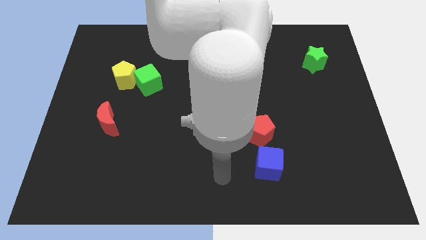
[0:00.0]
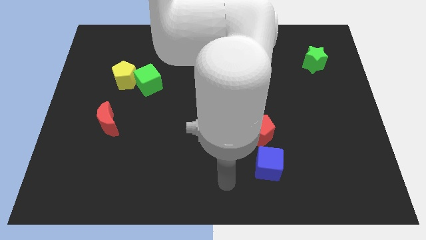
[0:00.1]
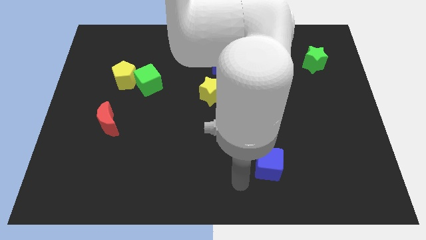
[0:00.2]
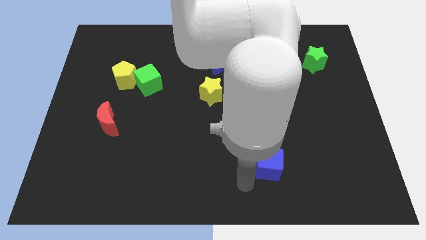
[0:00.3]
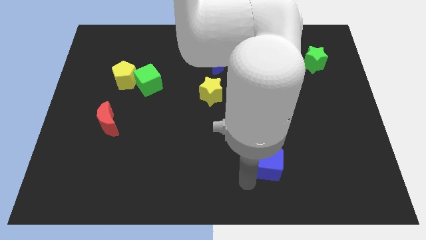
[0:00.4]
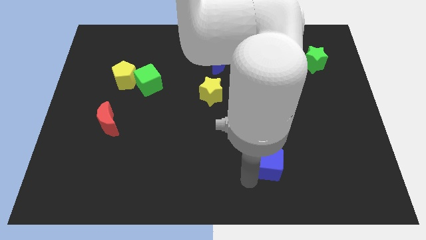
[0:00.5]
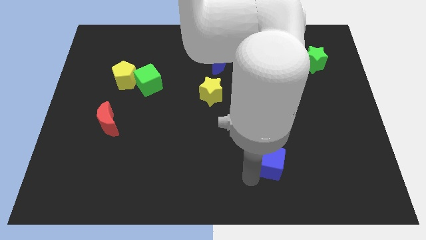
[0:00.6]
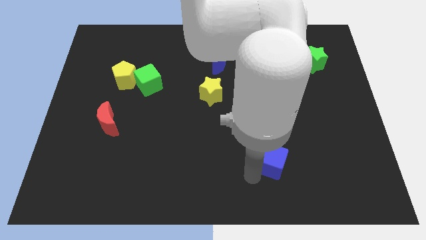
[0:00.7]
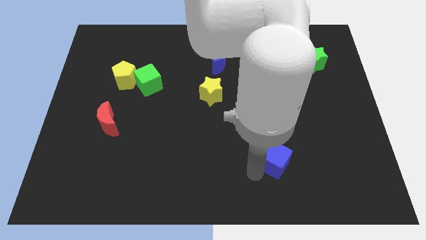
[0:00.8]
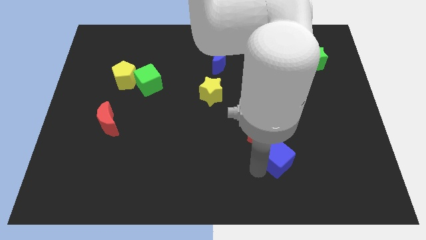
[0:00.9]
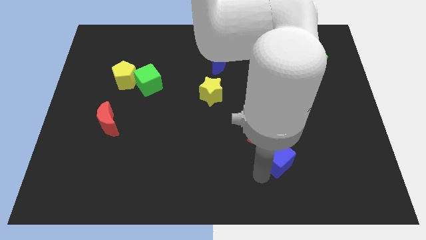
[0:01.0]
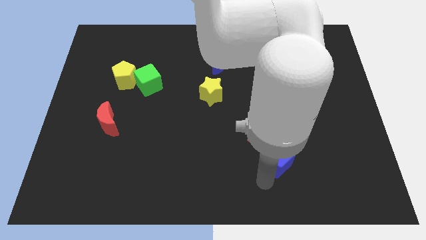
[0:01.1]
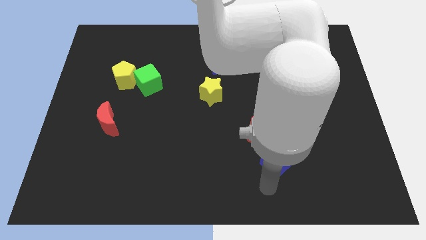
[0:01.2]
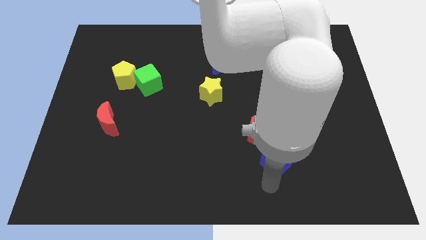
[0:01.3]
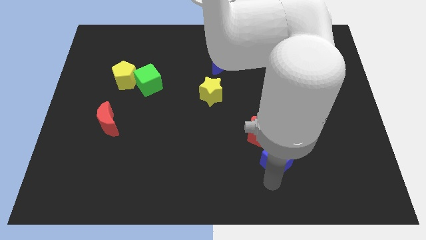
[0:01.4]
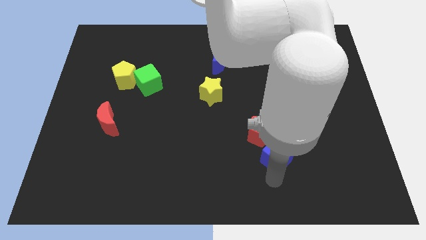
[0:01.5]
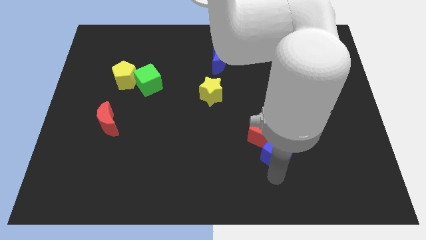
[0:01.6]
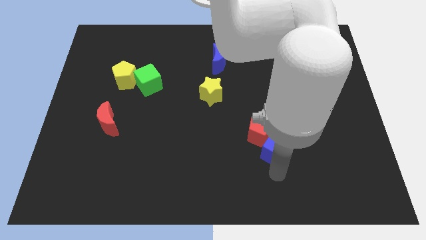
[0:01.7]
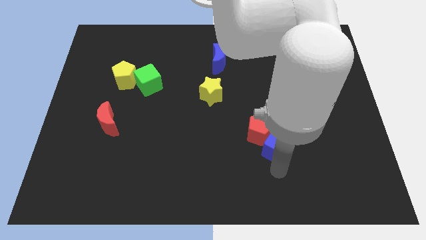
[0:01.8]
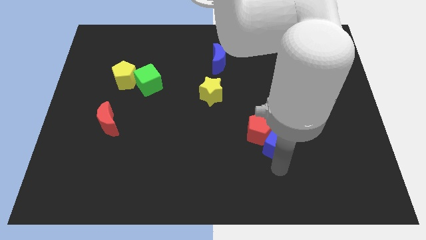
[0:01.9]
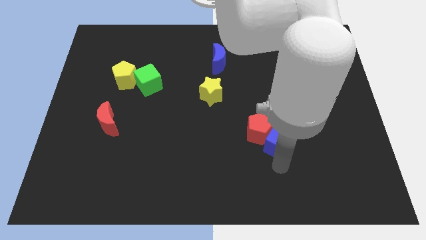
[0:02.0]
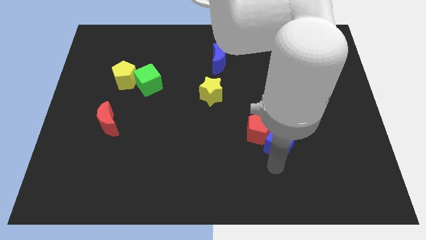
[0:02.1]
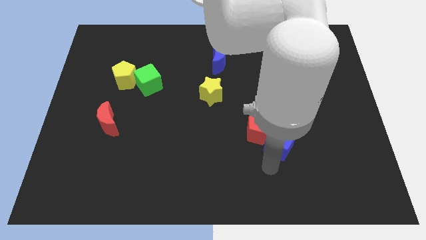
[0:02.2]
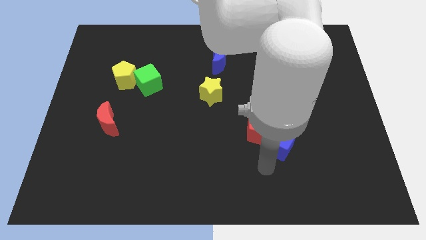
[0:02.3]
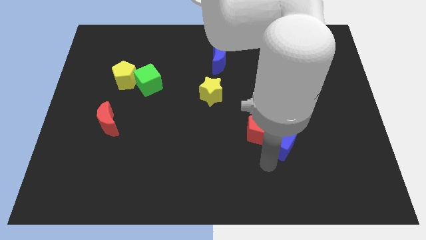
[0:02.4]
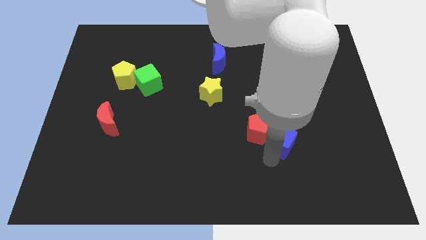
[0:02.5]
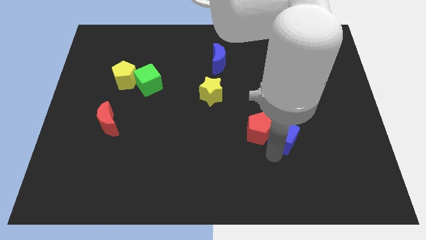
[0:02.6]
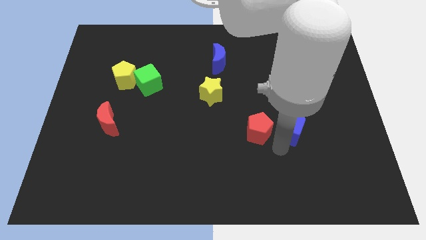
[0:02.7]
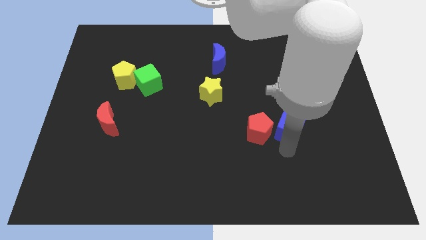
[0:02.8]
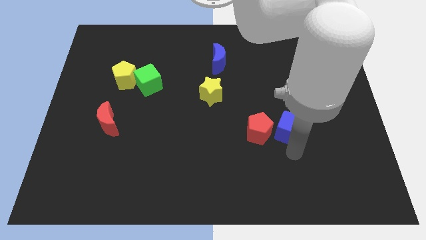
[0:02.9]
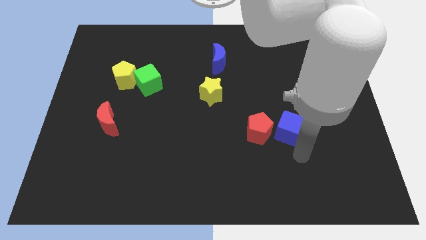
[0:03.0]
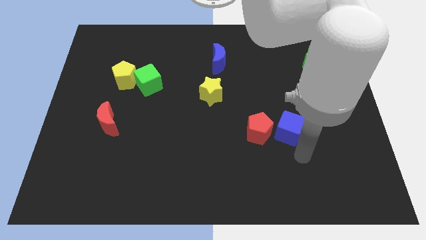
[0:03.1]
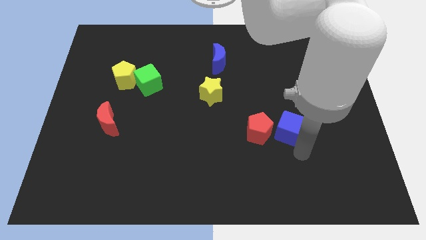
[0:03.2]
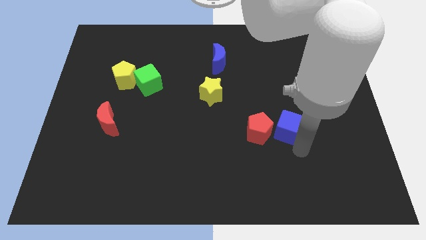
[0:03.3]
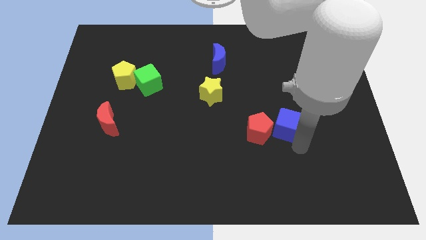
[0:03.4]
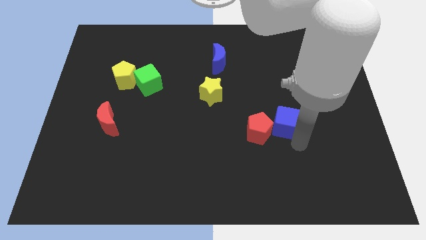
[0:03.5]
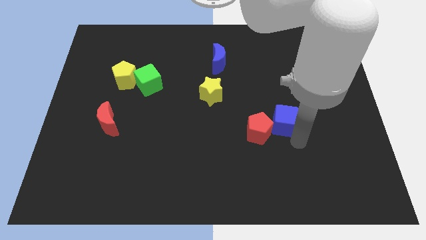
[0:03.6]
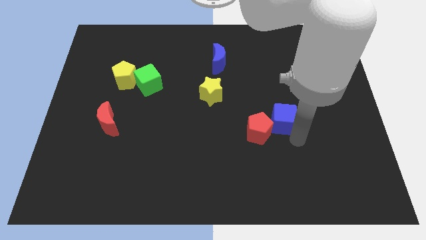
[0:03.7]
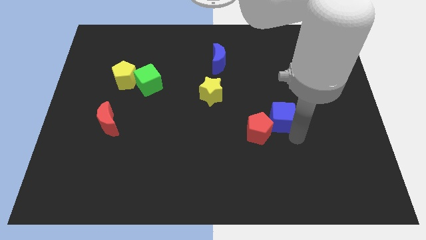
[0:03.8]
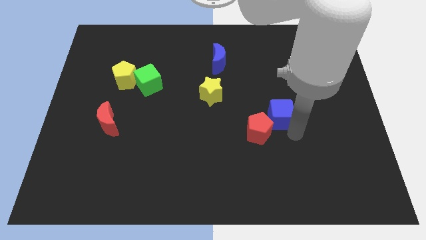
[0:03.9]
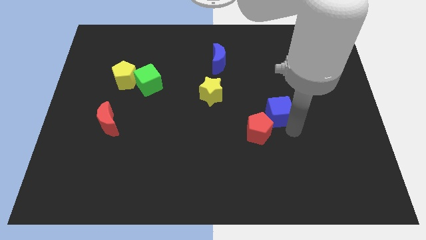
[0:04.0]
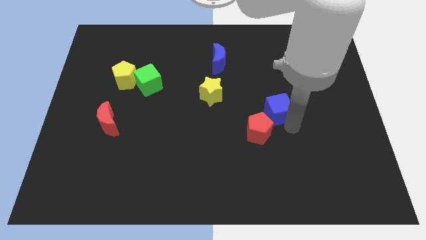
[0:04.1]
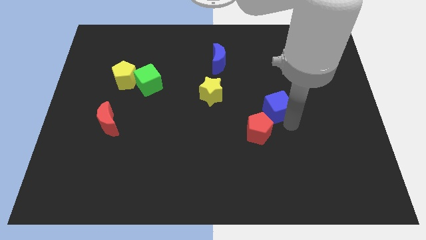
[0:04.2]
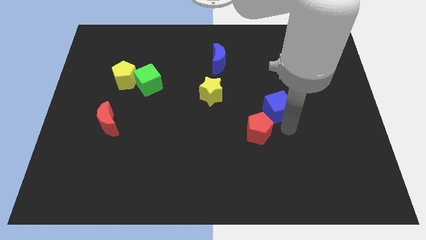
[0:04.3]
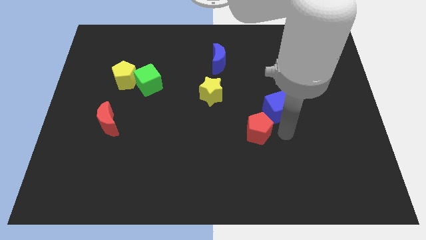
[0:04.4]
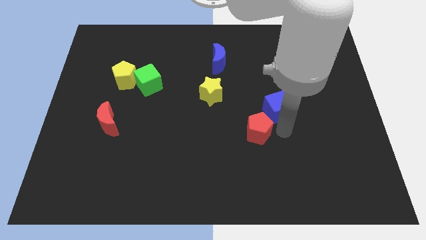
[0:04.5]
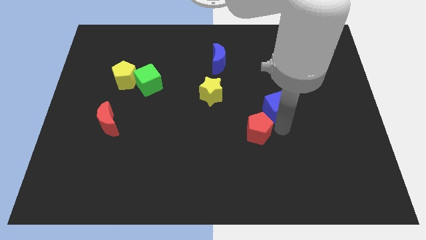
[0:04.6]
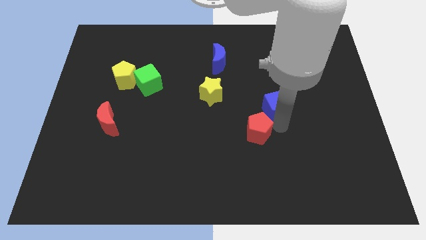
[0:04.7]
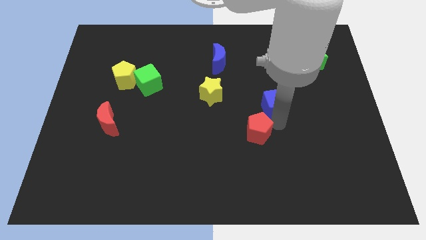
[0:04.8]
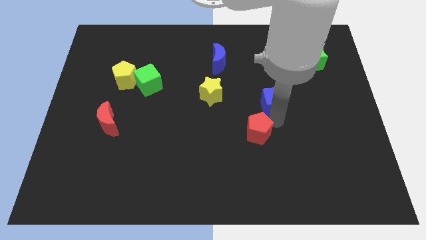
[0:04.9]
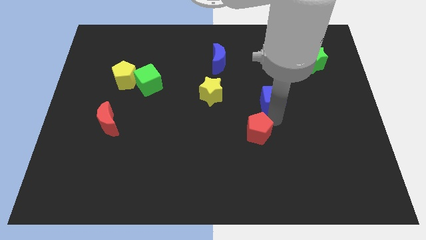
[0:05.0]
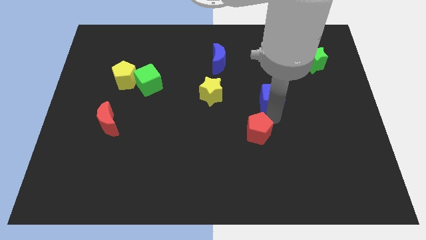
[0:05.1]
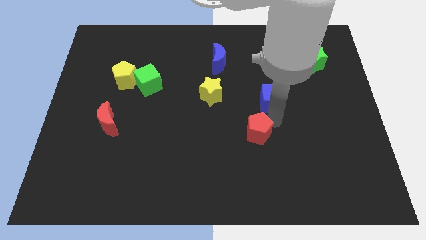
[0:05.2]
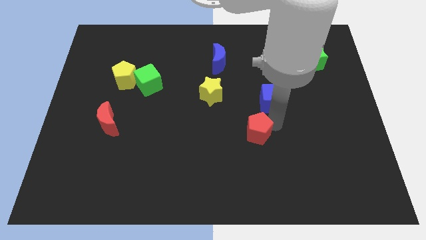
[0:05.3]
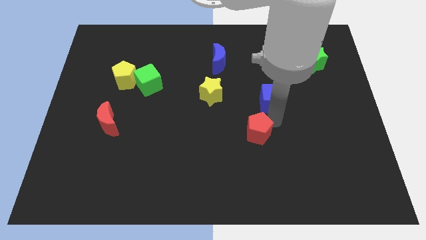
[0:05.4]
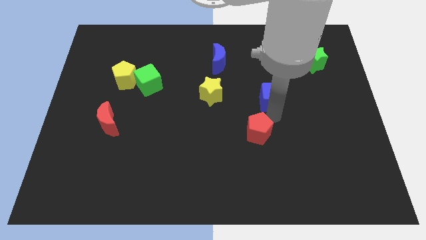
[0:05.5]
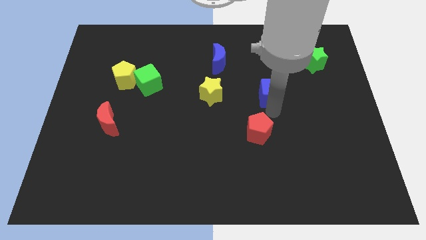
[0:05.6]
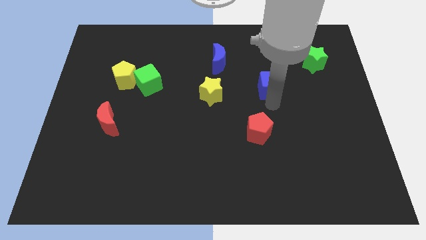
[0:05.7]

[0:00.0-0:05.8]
move the blue cube up

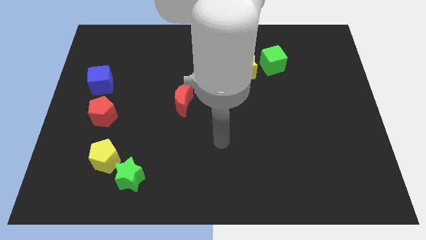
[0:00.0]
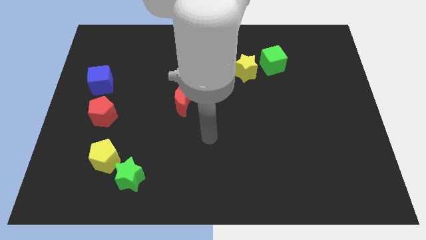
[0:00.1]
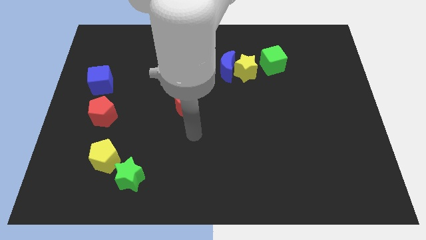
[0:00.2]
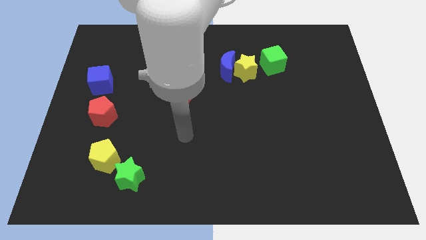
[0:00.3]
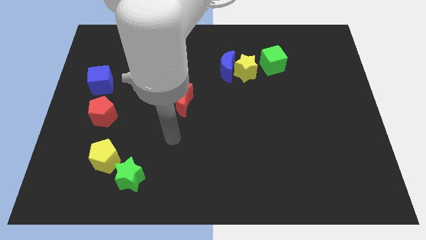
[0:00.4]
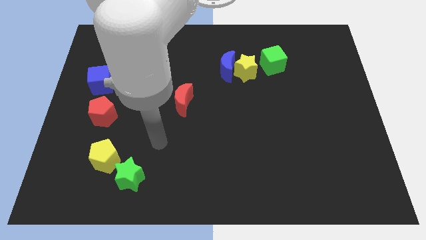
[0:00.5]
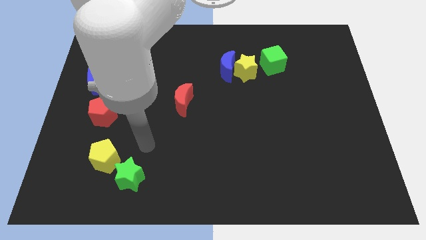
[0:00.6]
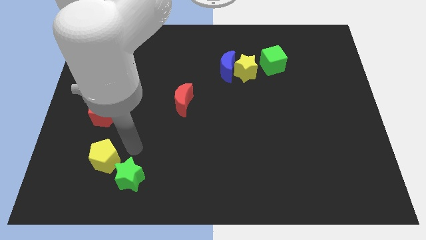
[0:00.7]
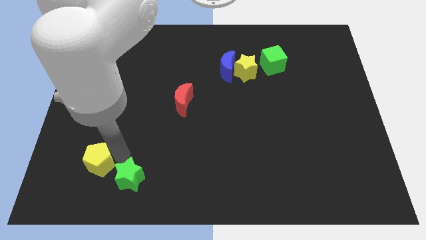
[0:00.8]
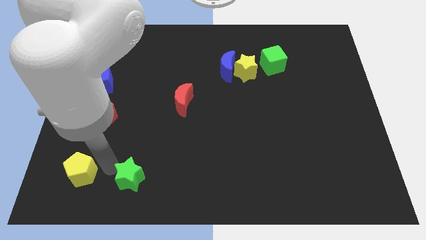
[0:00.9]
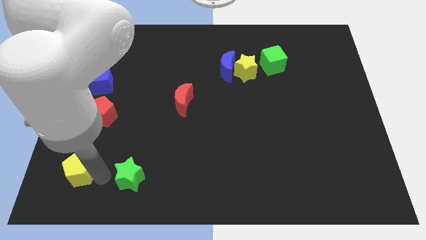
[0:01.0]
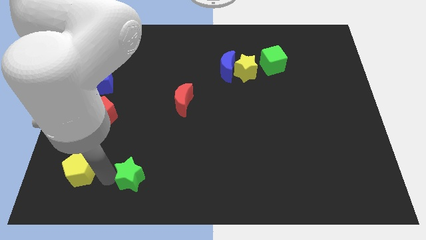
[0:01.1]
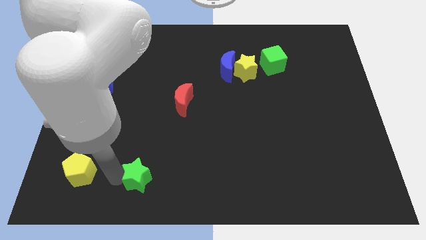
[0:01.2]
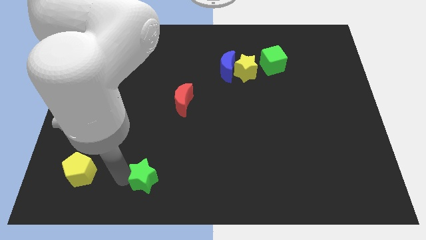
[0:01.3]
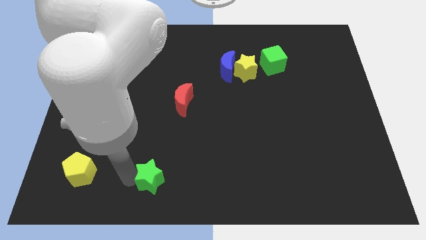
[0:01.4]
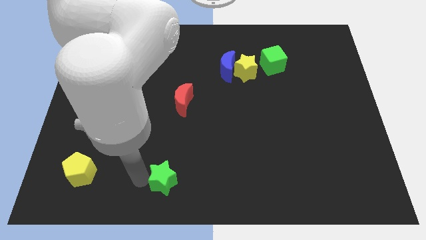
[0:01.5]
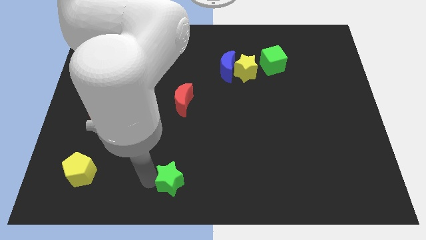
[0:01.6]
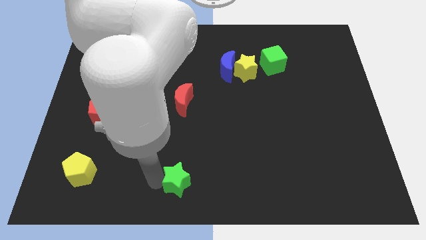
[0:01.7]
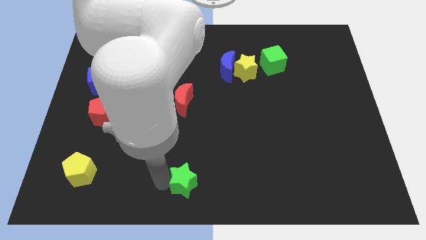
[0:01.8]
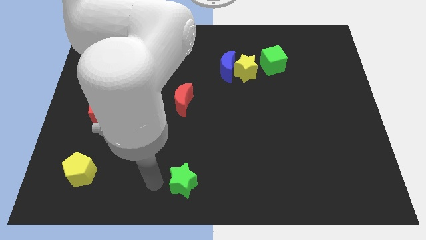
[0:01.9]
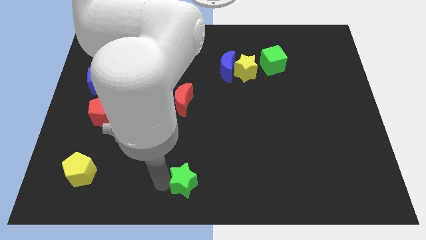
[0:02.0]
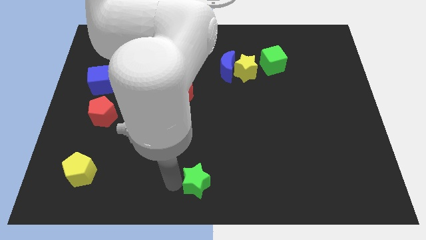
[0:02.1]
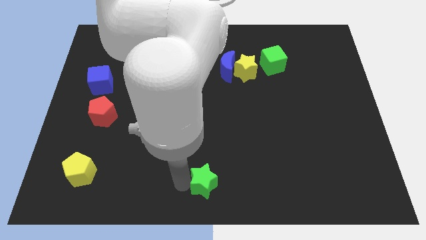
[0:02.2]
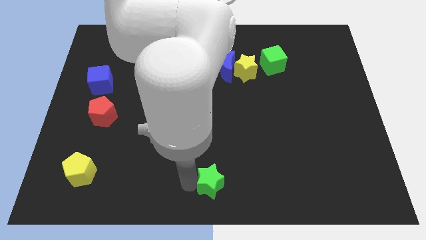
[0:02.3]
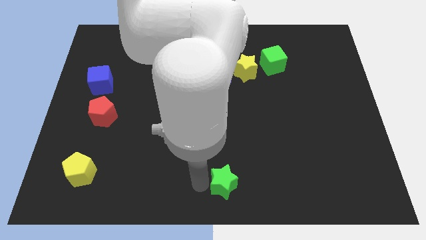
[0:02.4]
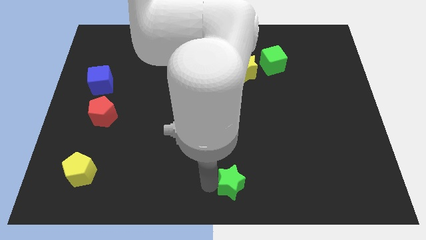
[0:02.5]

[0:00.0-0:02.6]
slide the green star right
